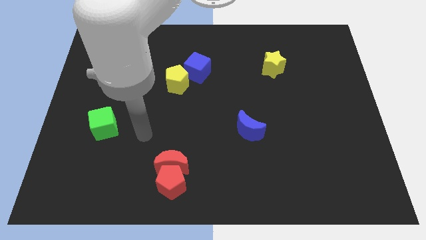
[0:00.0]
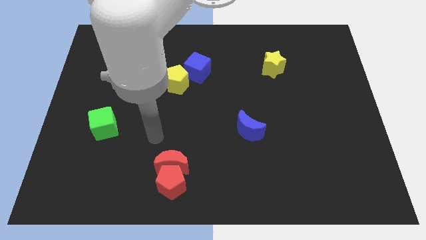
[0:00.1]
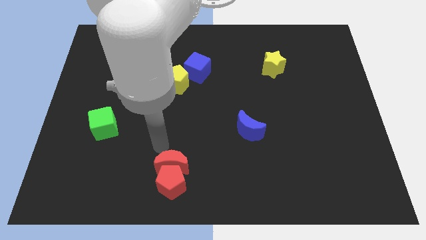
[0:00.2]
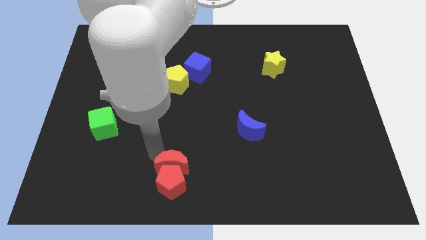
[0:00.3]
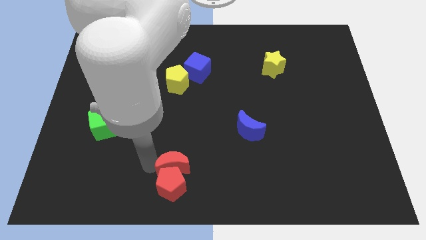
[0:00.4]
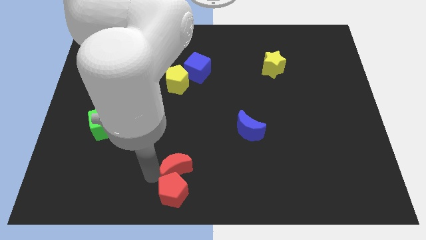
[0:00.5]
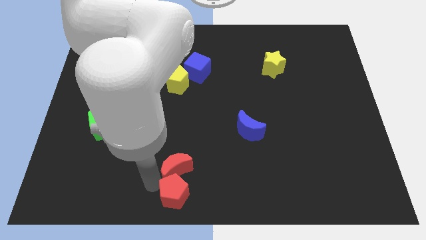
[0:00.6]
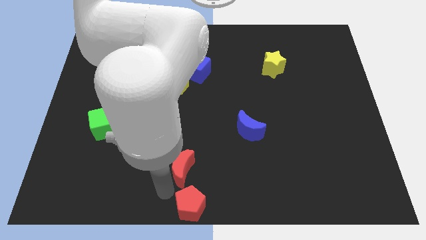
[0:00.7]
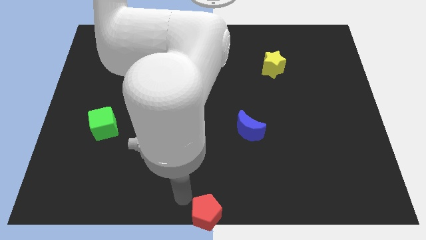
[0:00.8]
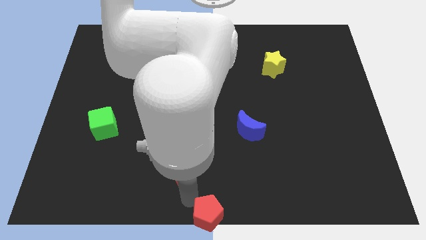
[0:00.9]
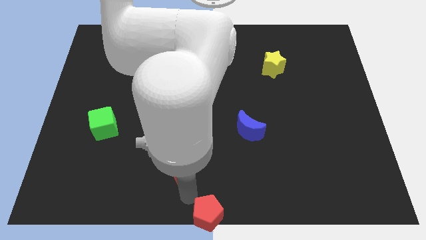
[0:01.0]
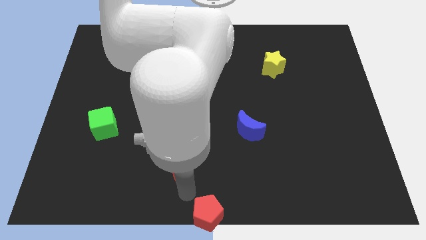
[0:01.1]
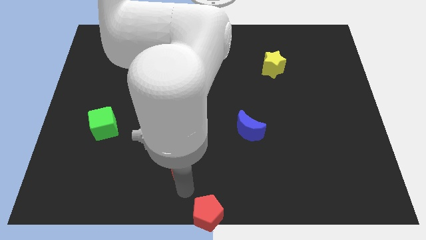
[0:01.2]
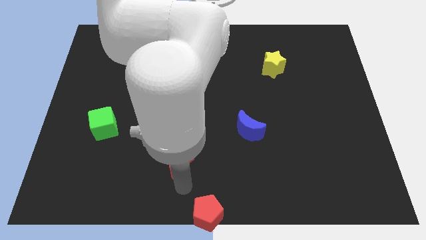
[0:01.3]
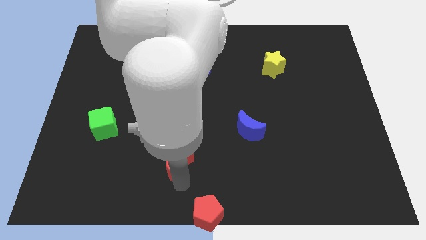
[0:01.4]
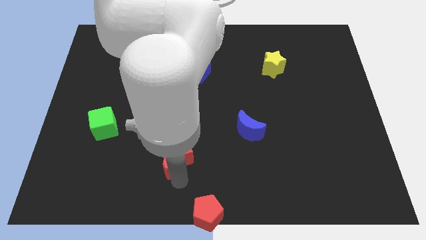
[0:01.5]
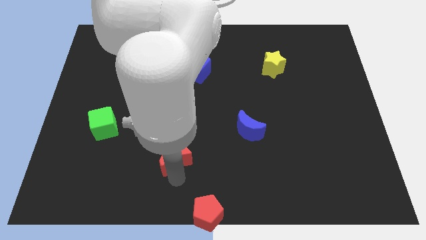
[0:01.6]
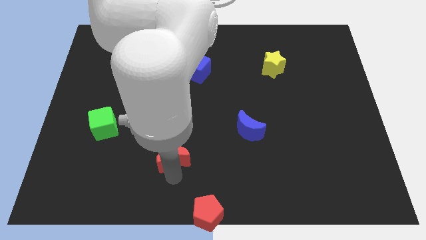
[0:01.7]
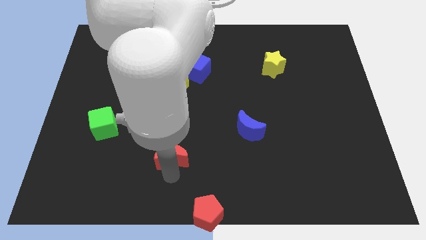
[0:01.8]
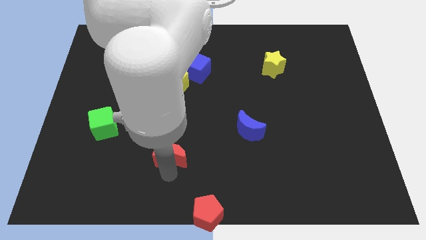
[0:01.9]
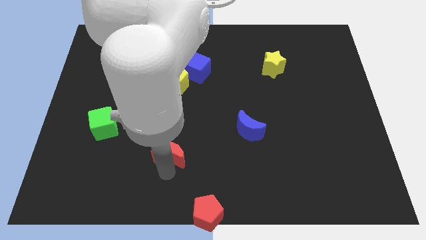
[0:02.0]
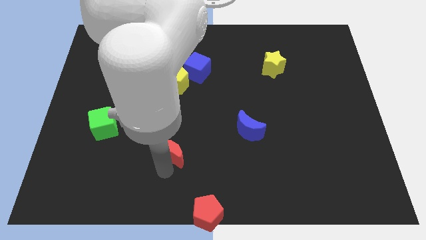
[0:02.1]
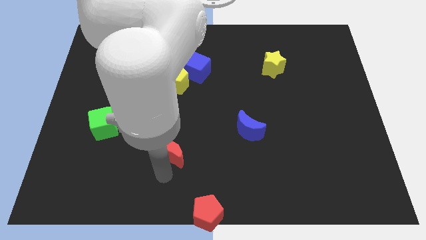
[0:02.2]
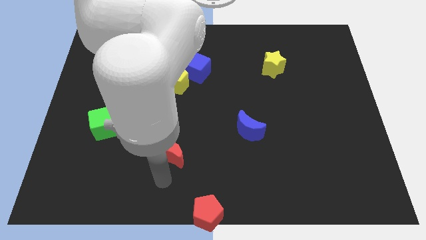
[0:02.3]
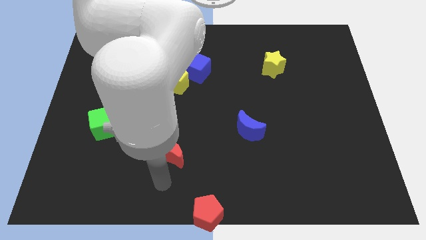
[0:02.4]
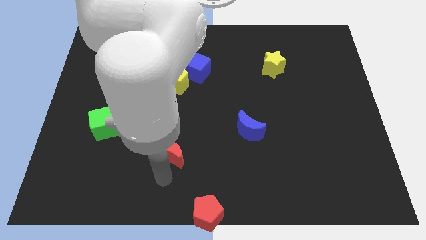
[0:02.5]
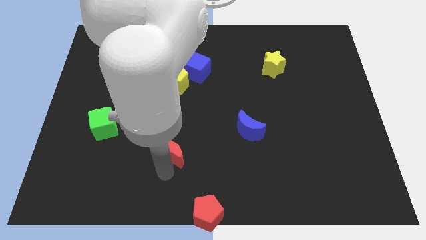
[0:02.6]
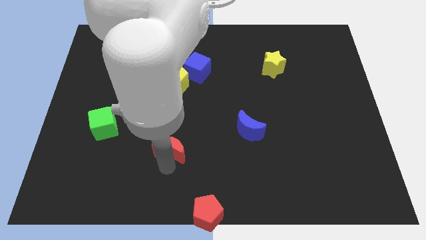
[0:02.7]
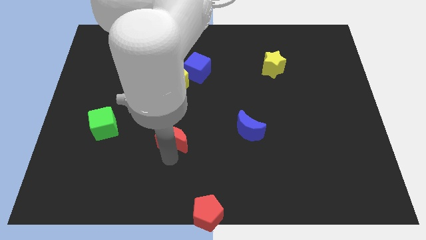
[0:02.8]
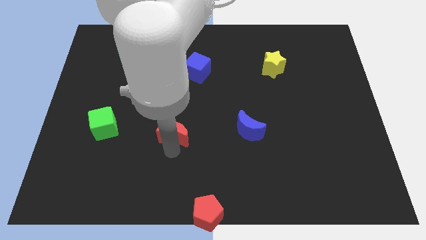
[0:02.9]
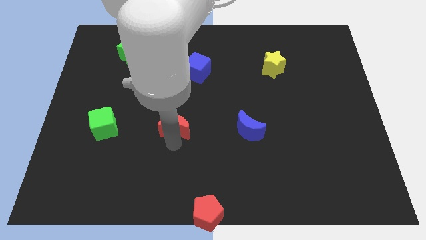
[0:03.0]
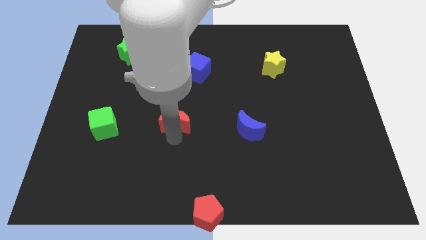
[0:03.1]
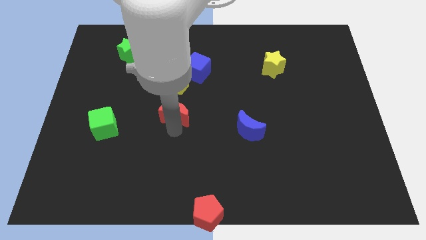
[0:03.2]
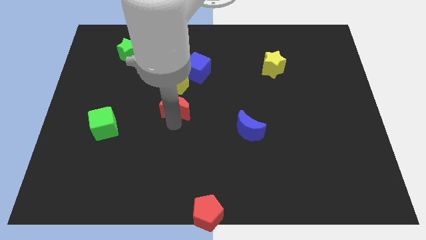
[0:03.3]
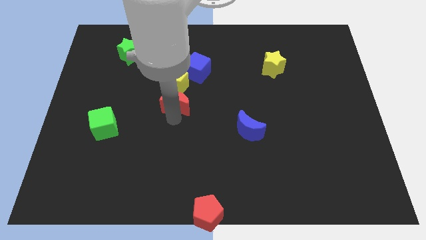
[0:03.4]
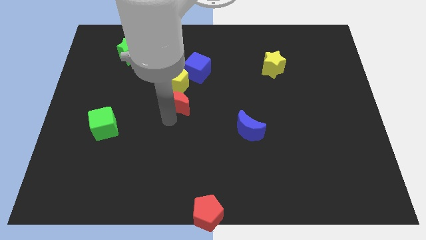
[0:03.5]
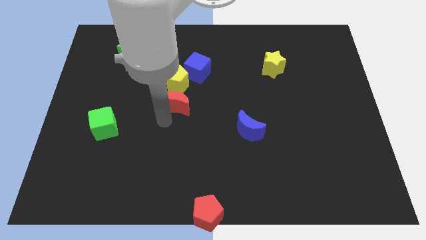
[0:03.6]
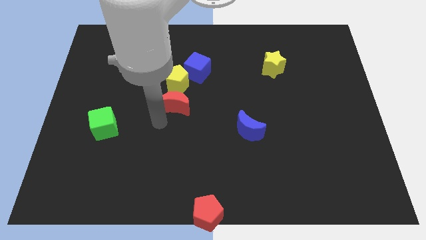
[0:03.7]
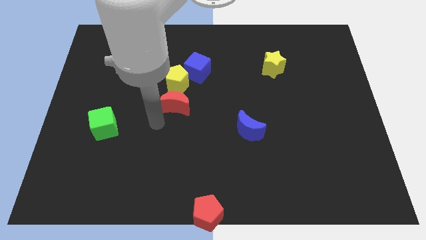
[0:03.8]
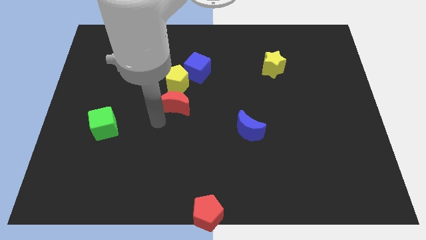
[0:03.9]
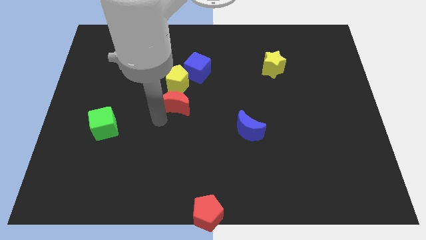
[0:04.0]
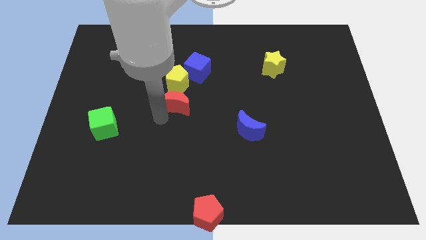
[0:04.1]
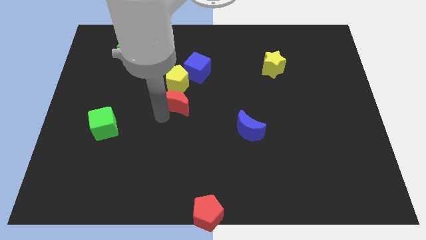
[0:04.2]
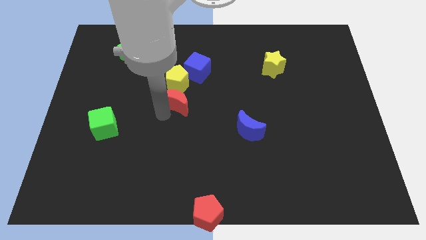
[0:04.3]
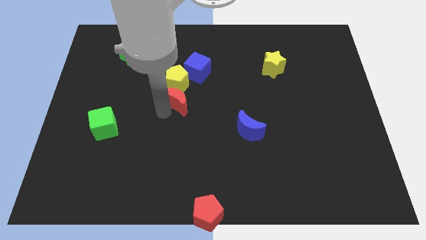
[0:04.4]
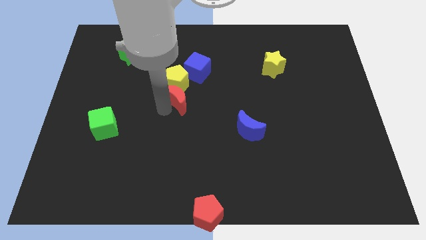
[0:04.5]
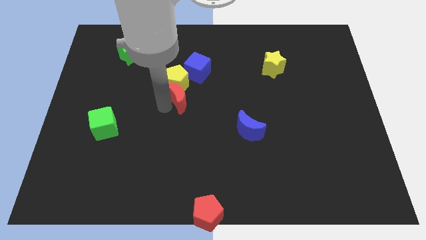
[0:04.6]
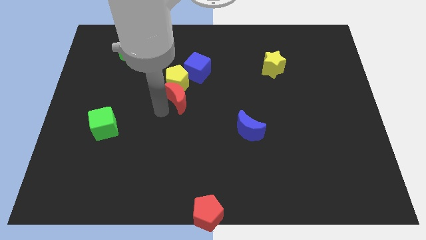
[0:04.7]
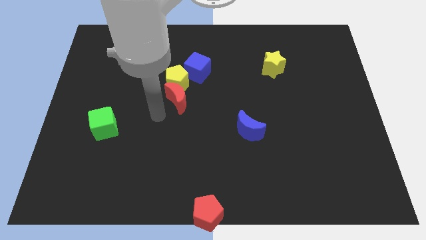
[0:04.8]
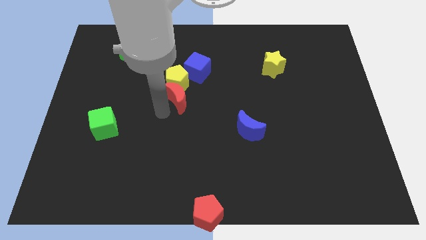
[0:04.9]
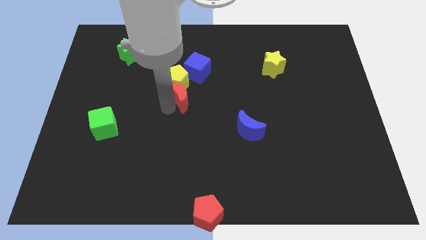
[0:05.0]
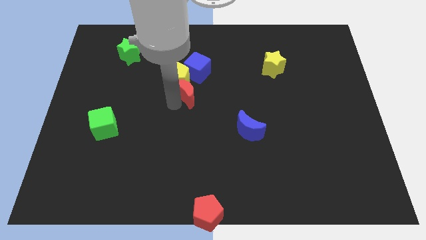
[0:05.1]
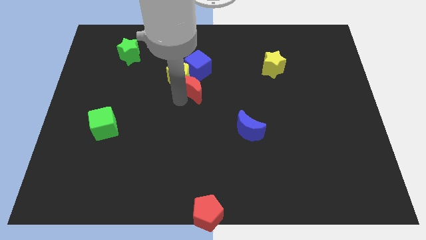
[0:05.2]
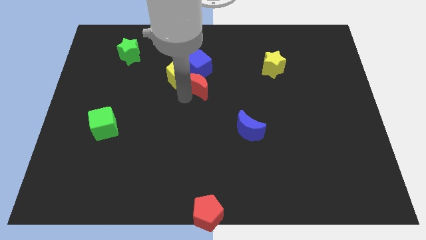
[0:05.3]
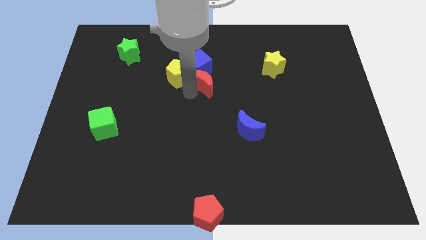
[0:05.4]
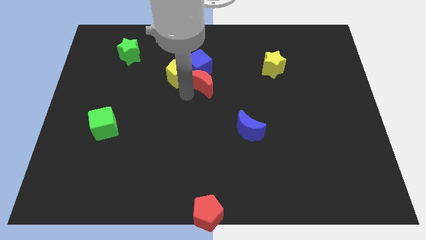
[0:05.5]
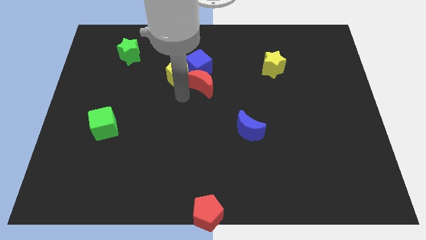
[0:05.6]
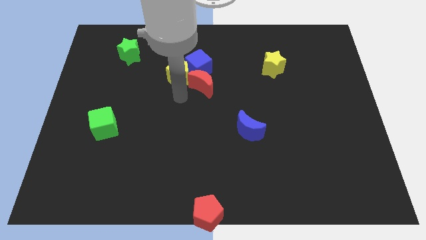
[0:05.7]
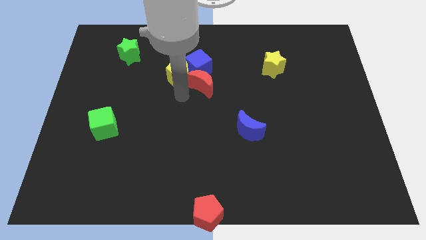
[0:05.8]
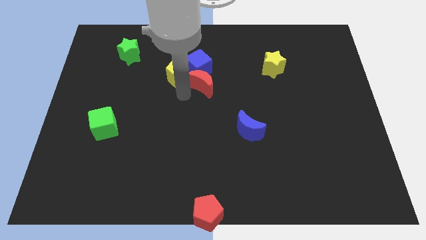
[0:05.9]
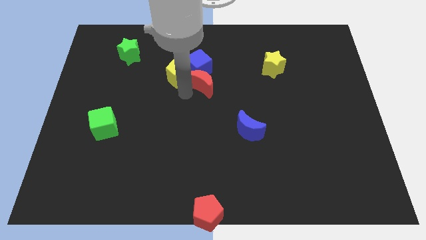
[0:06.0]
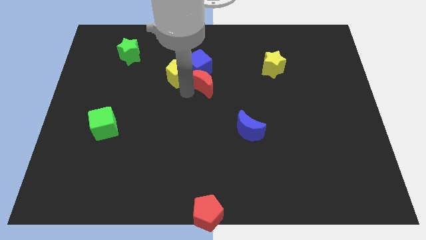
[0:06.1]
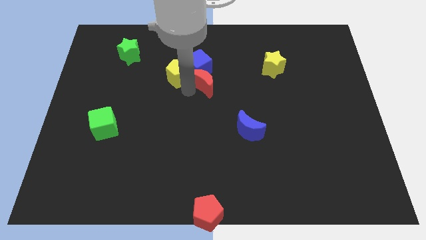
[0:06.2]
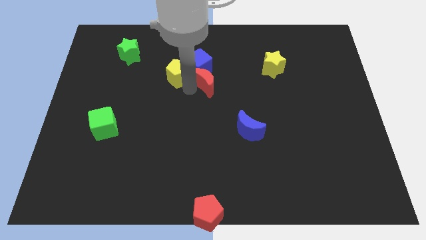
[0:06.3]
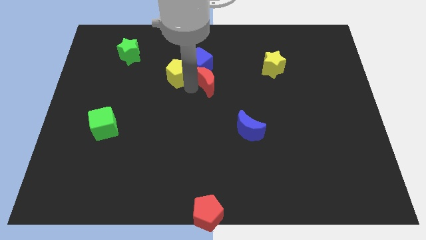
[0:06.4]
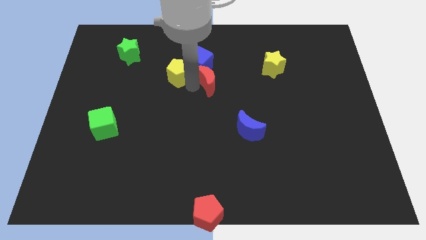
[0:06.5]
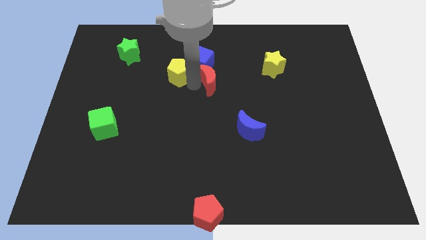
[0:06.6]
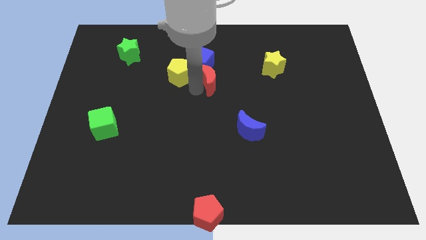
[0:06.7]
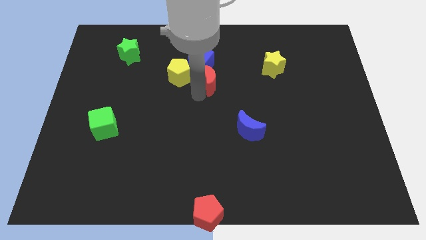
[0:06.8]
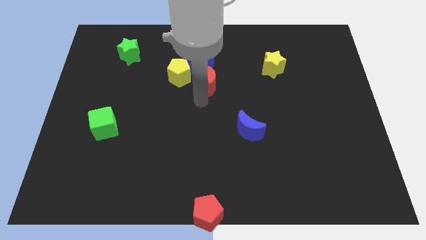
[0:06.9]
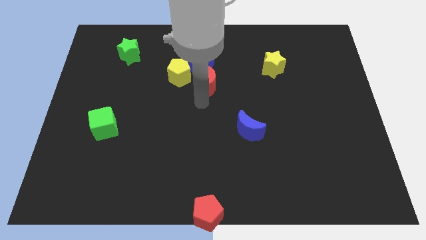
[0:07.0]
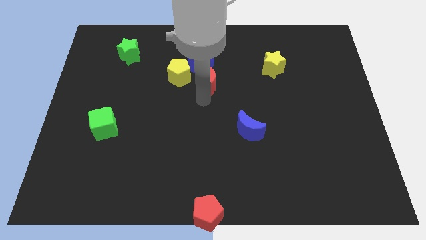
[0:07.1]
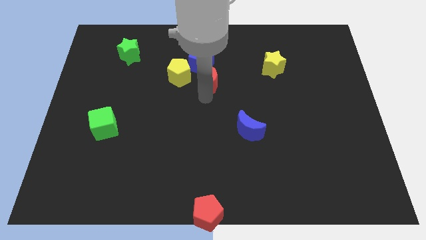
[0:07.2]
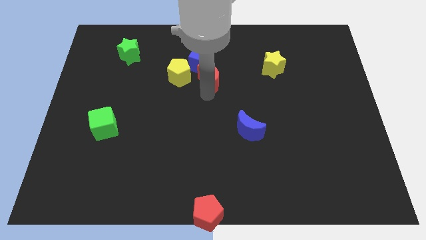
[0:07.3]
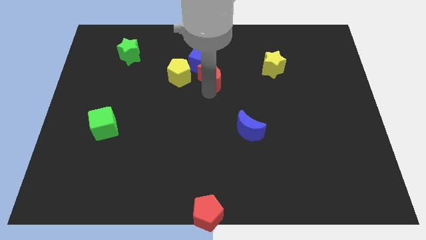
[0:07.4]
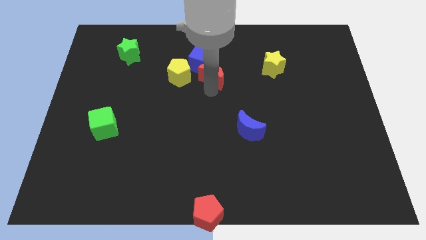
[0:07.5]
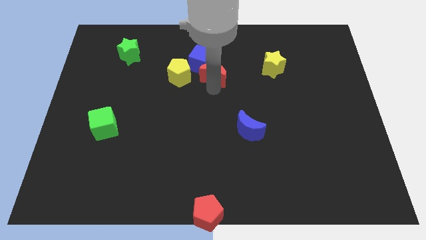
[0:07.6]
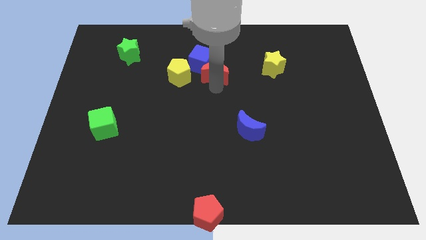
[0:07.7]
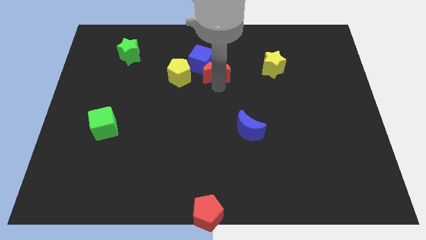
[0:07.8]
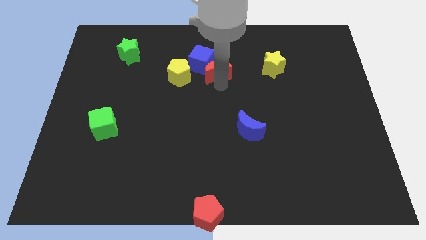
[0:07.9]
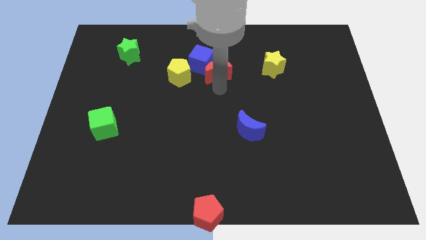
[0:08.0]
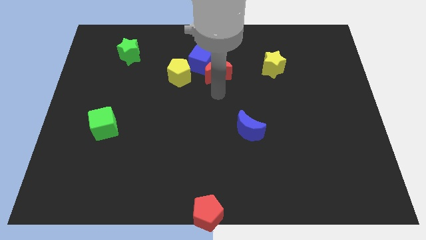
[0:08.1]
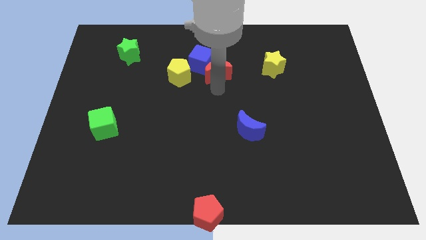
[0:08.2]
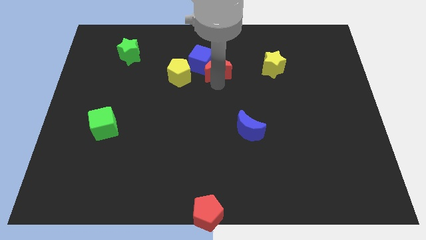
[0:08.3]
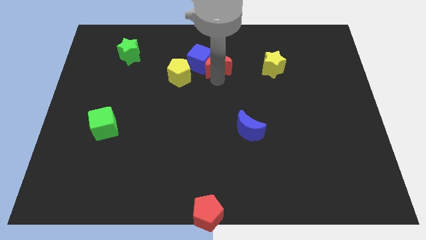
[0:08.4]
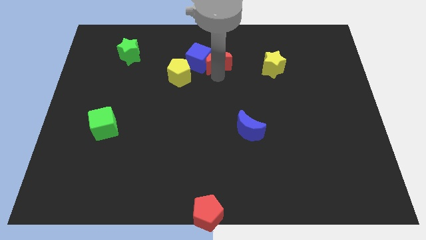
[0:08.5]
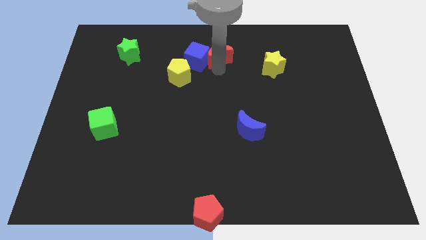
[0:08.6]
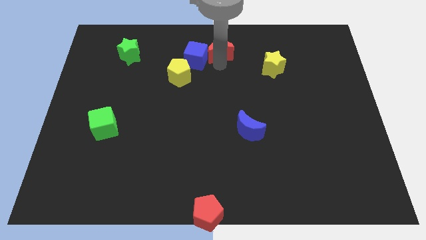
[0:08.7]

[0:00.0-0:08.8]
move the red moon to the top
